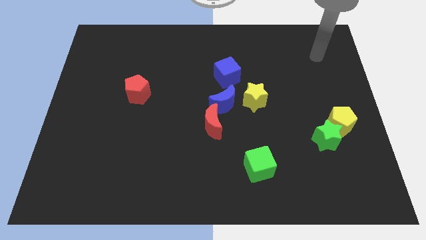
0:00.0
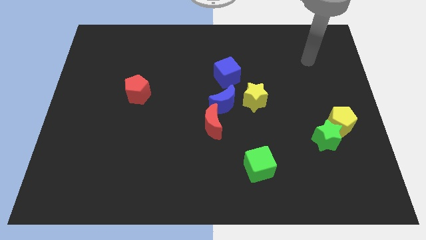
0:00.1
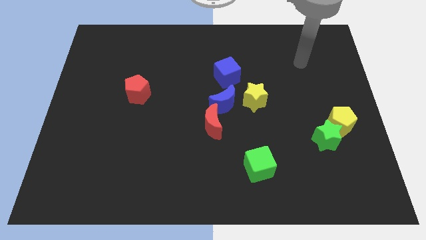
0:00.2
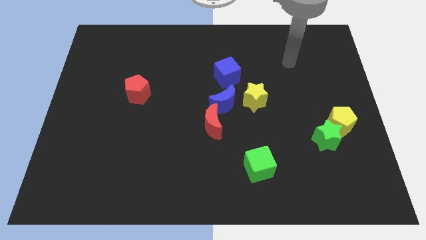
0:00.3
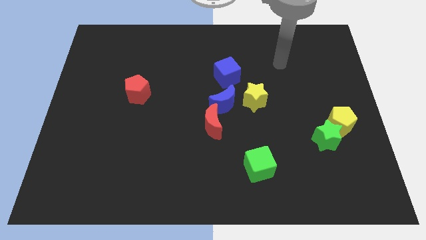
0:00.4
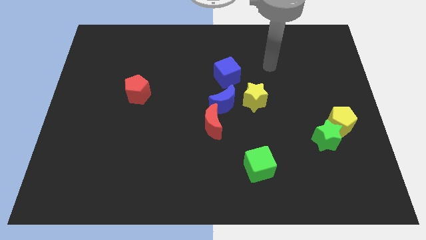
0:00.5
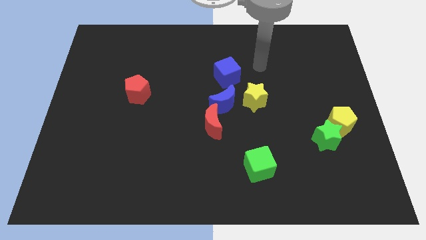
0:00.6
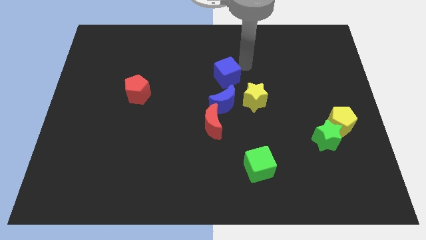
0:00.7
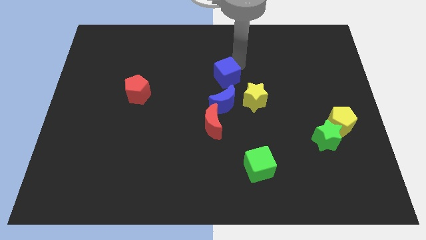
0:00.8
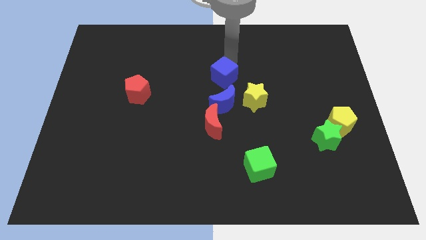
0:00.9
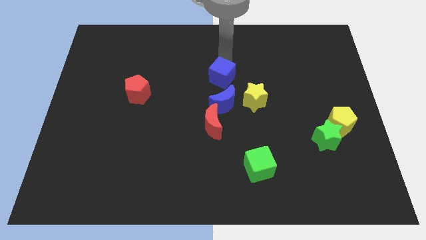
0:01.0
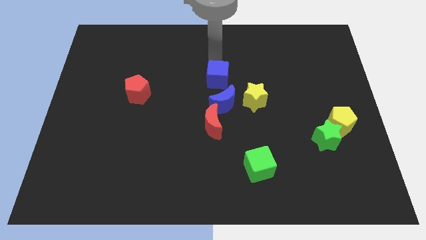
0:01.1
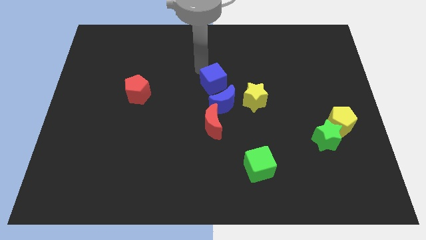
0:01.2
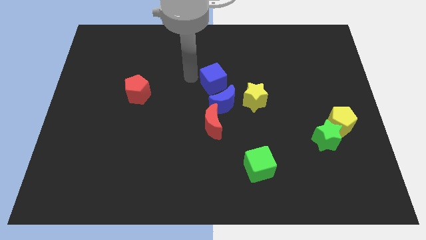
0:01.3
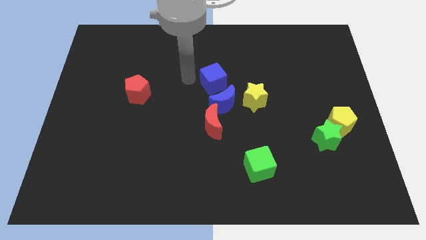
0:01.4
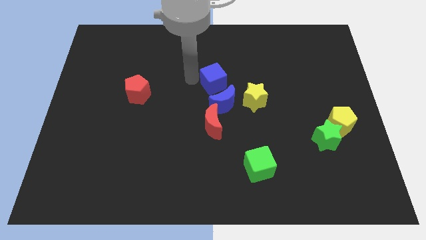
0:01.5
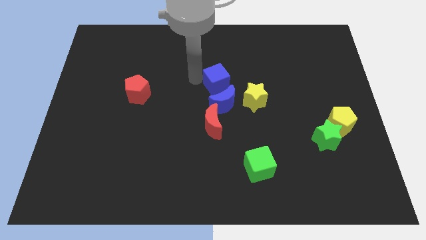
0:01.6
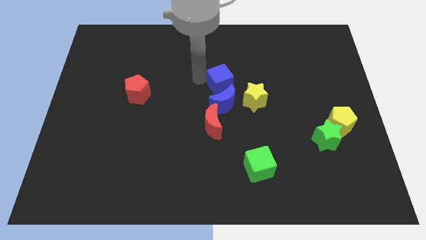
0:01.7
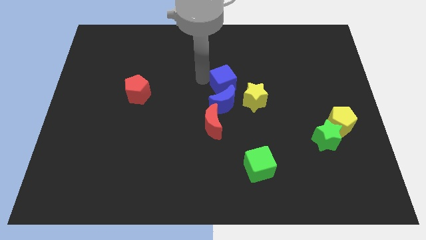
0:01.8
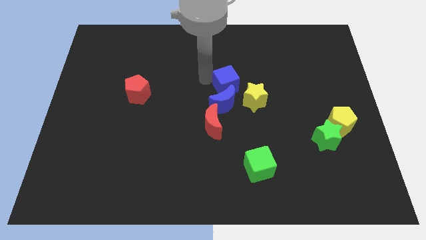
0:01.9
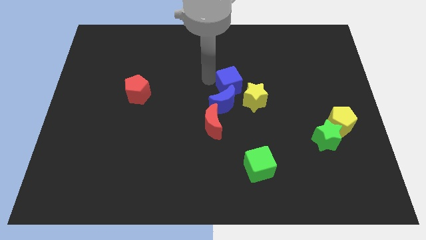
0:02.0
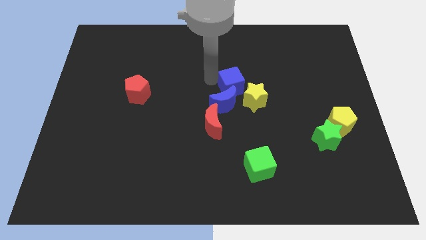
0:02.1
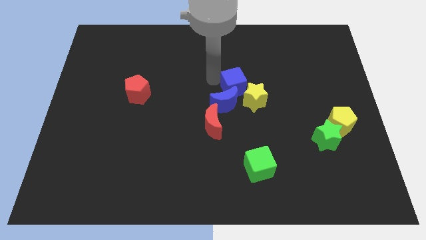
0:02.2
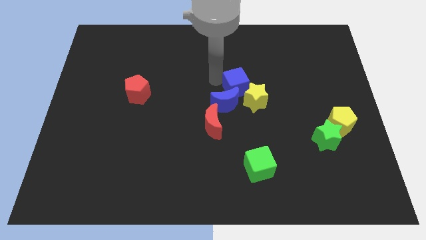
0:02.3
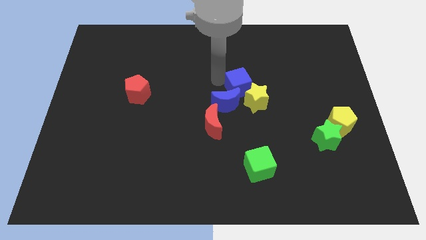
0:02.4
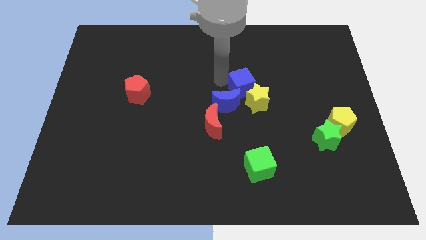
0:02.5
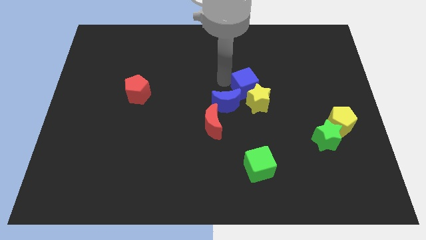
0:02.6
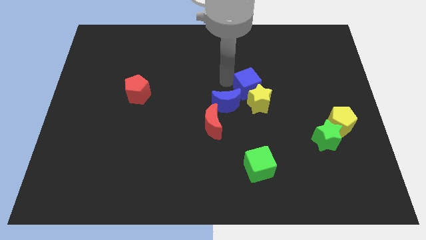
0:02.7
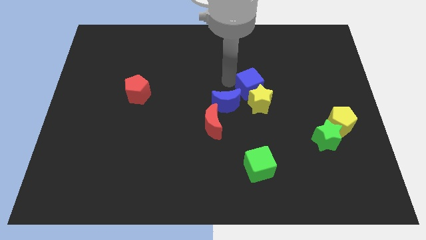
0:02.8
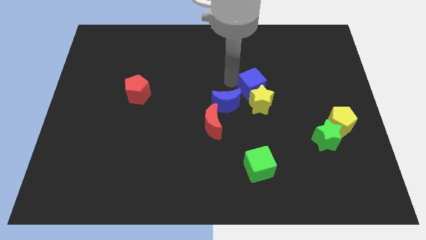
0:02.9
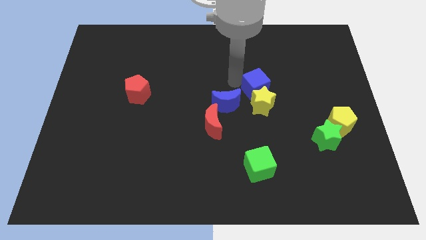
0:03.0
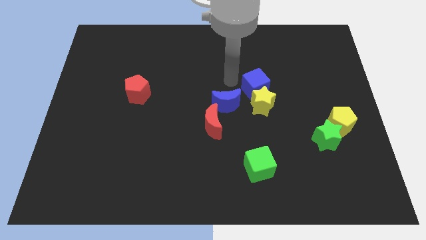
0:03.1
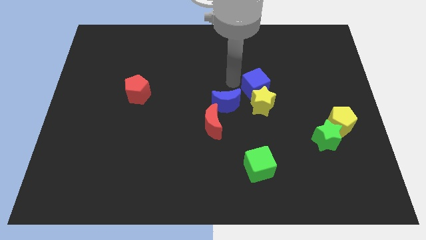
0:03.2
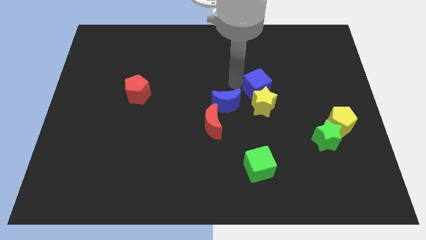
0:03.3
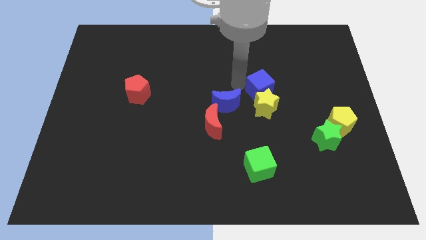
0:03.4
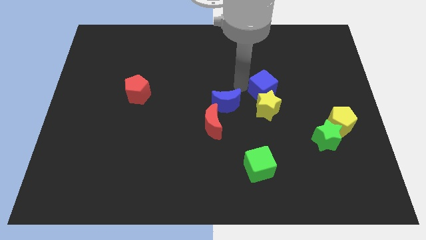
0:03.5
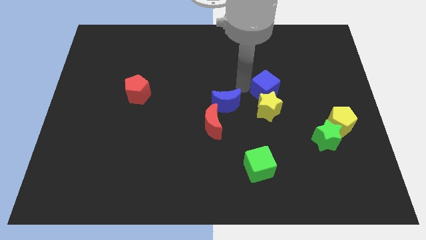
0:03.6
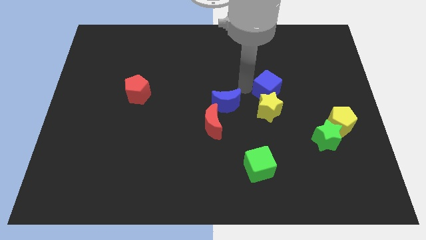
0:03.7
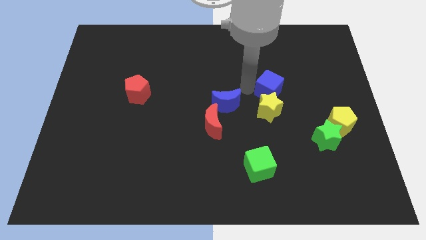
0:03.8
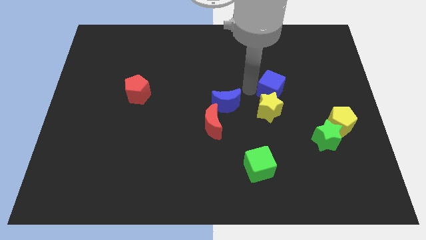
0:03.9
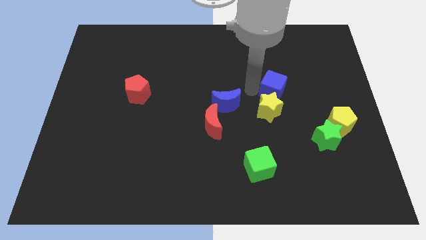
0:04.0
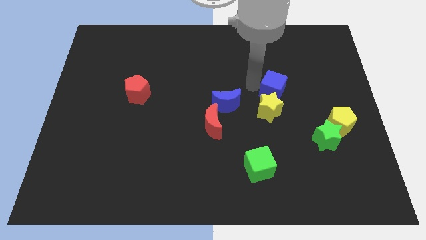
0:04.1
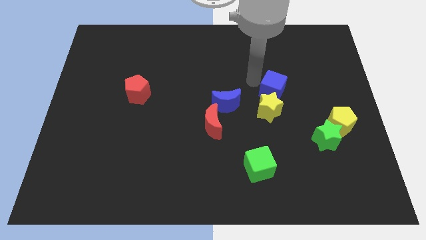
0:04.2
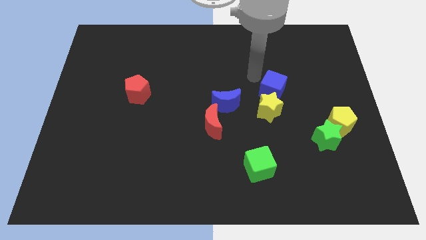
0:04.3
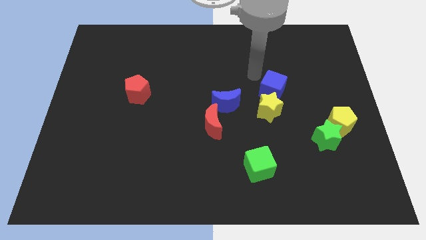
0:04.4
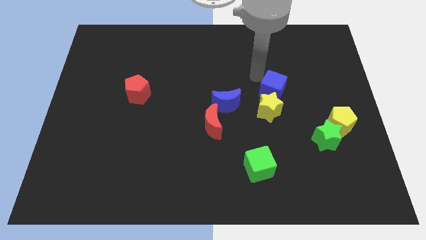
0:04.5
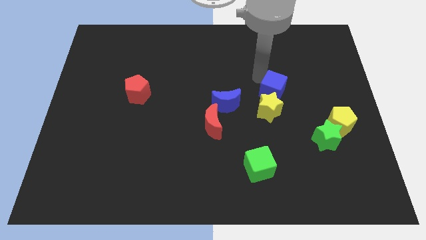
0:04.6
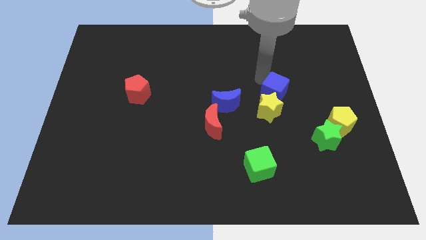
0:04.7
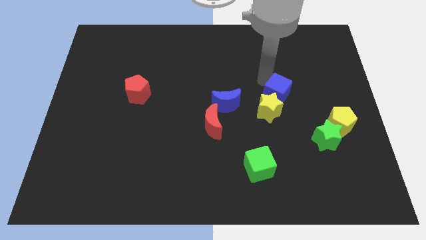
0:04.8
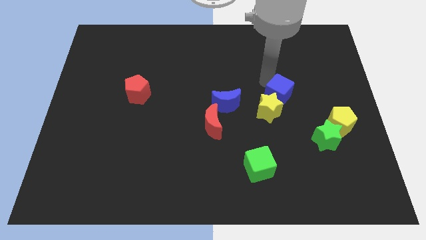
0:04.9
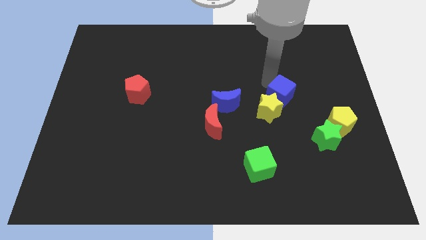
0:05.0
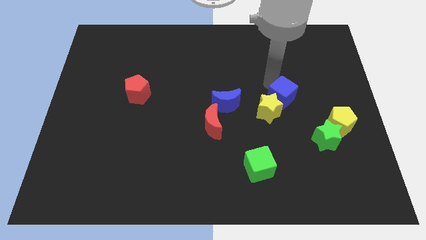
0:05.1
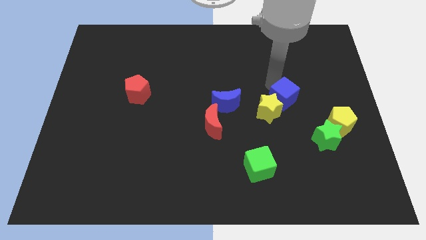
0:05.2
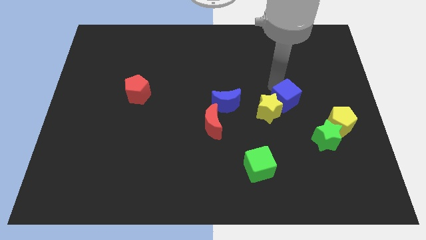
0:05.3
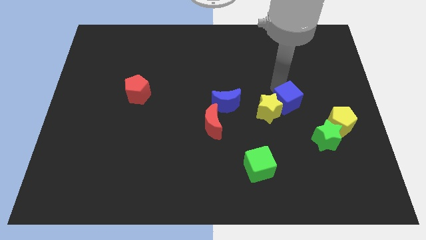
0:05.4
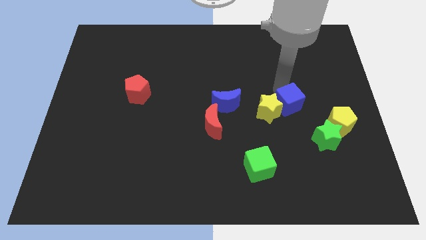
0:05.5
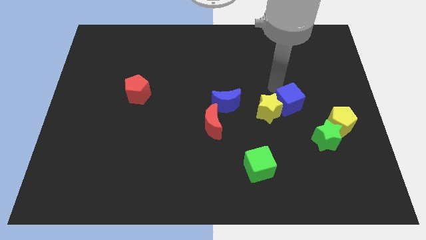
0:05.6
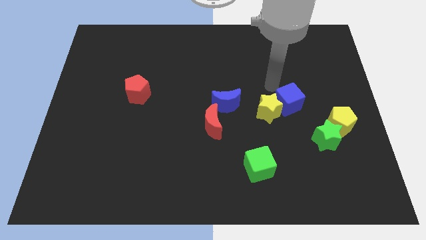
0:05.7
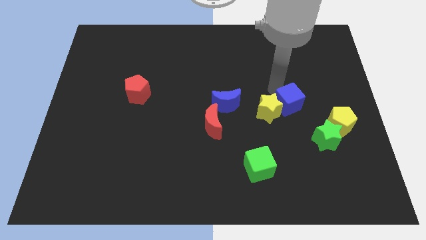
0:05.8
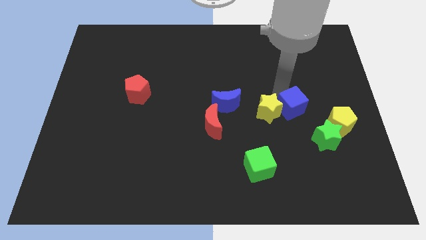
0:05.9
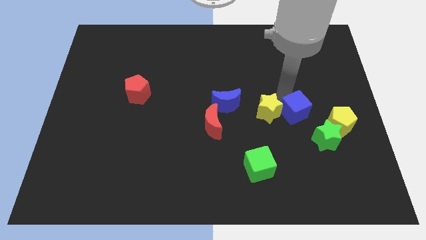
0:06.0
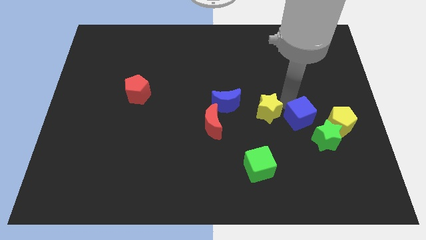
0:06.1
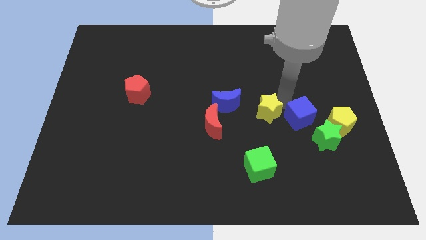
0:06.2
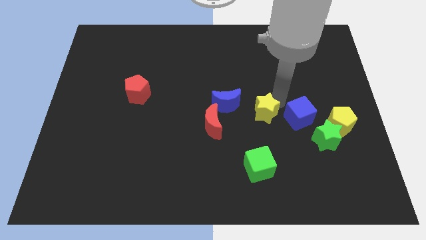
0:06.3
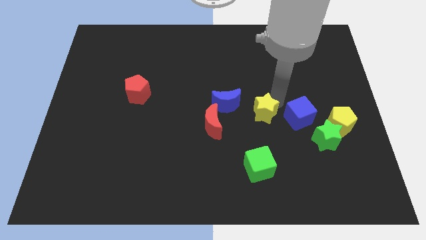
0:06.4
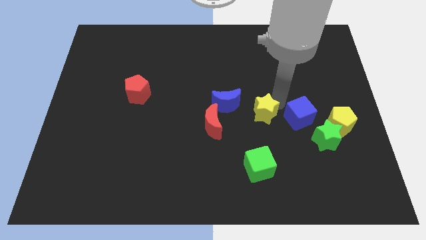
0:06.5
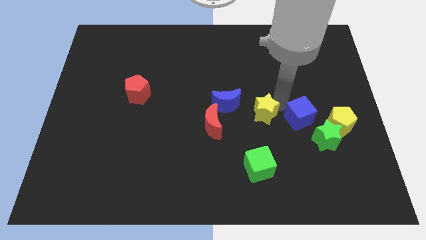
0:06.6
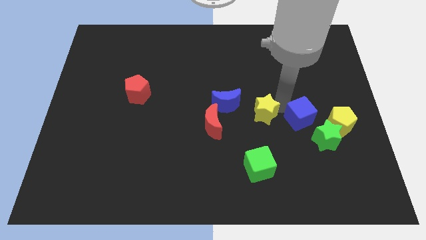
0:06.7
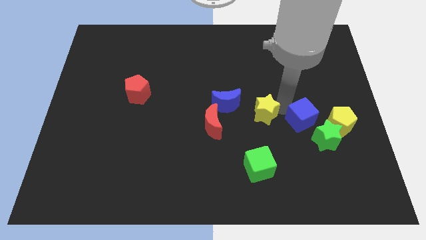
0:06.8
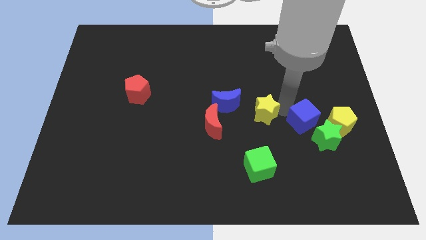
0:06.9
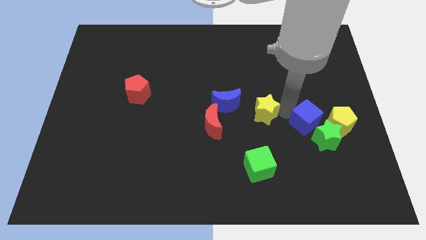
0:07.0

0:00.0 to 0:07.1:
push the blue cube towards the green star
